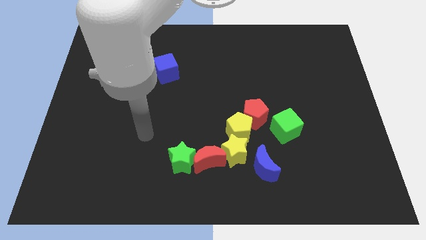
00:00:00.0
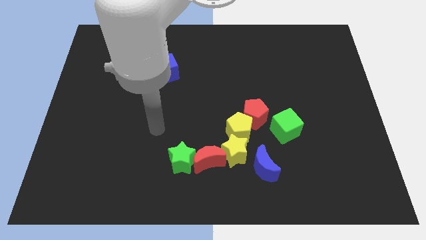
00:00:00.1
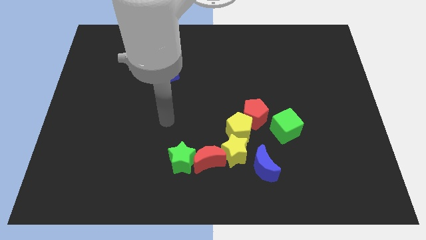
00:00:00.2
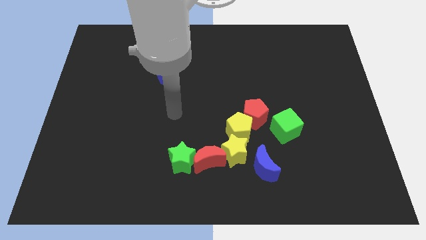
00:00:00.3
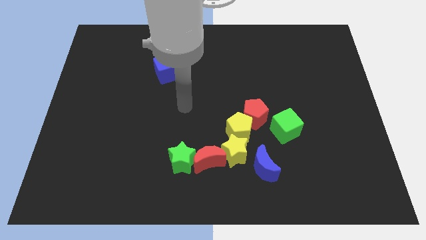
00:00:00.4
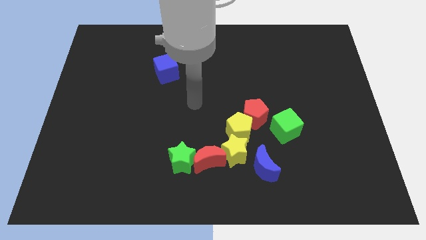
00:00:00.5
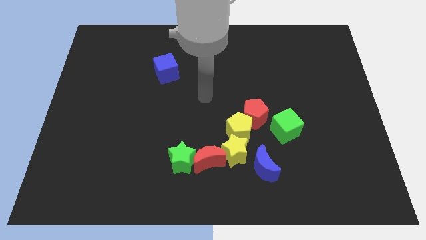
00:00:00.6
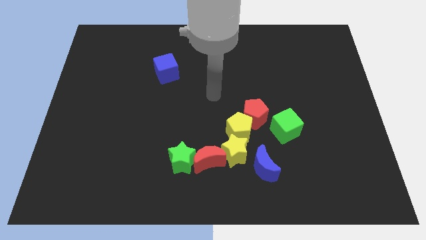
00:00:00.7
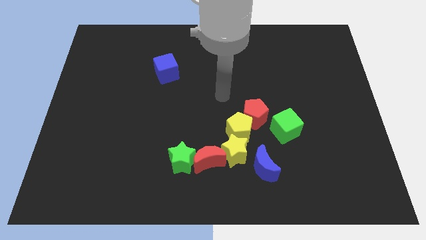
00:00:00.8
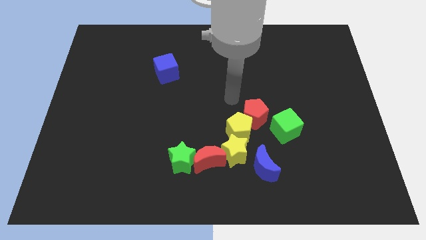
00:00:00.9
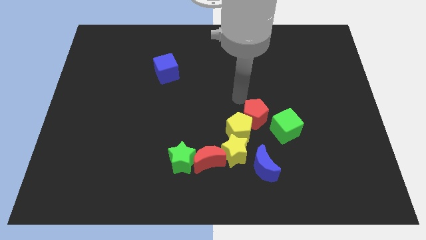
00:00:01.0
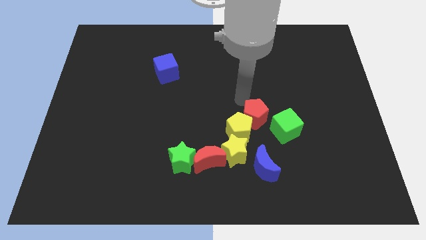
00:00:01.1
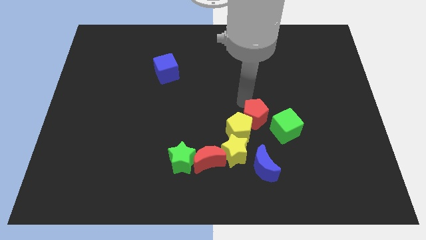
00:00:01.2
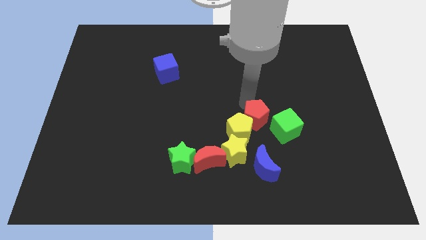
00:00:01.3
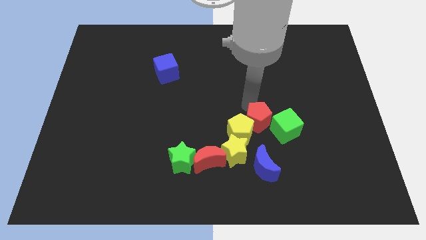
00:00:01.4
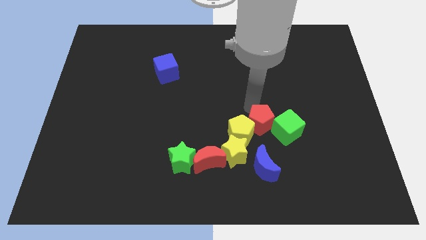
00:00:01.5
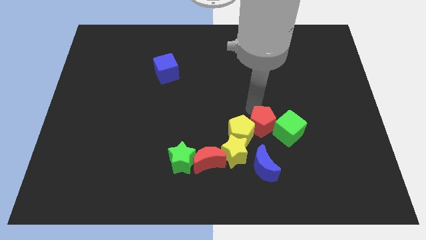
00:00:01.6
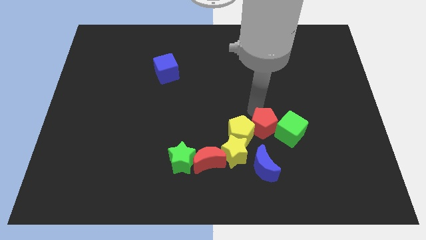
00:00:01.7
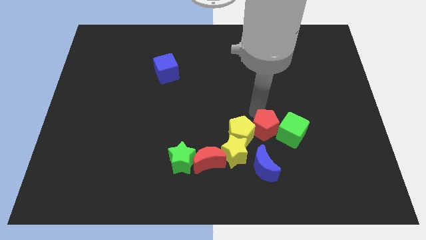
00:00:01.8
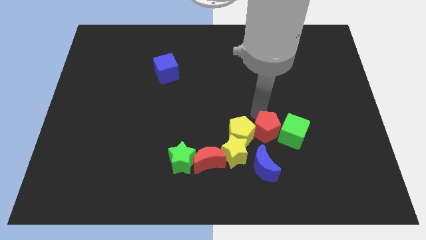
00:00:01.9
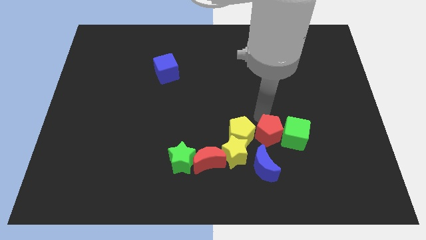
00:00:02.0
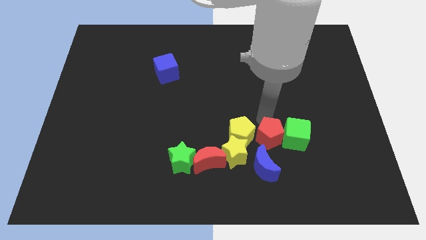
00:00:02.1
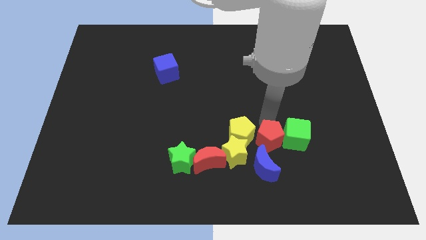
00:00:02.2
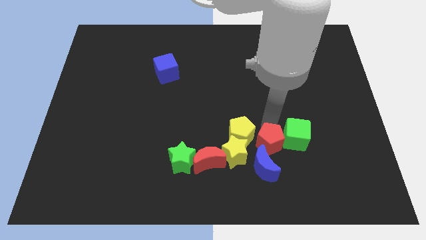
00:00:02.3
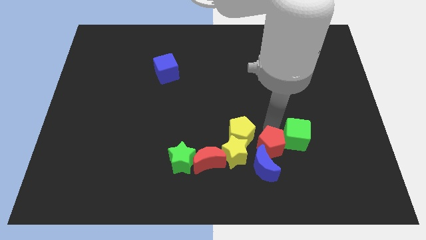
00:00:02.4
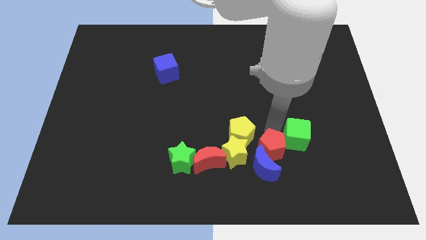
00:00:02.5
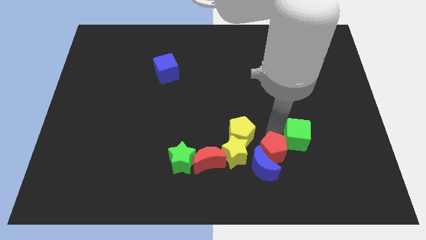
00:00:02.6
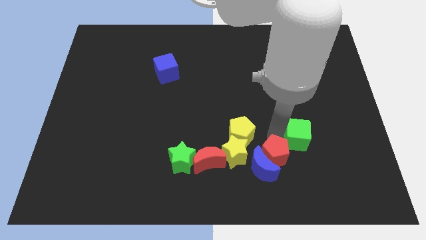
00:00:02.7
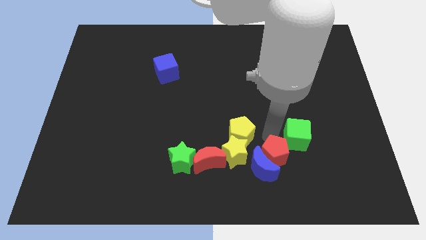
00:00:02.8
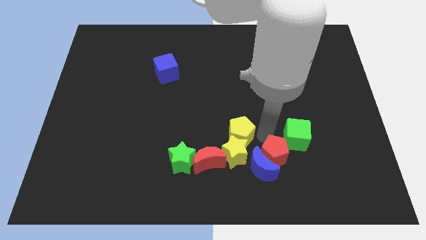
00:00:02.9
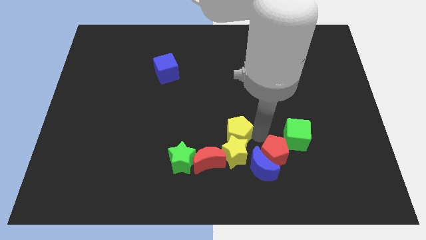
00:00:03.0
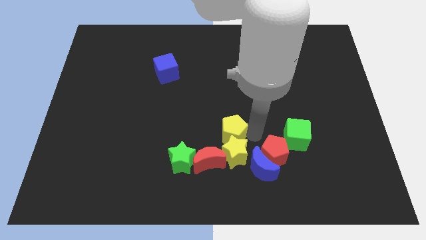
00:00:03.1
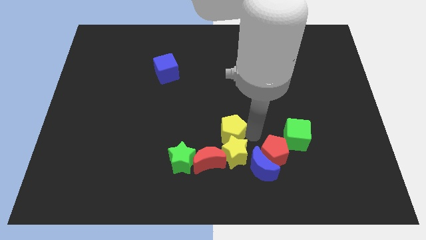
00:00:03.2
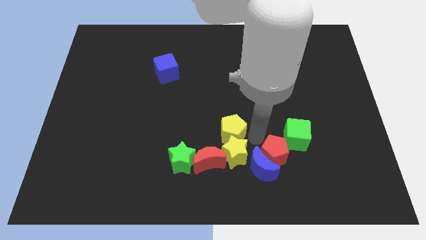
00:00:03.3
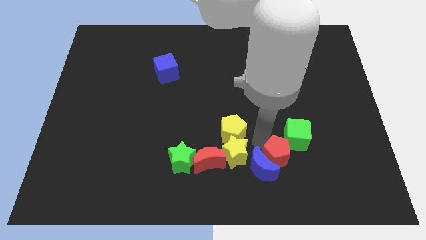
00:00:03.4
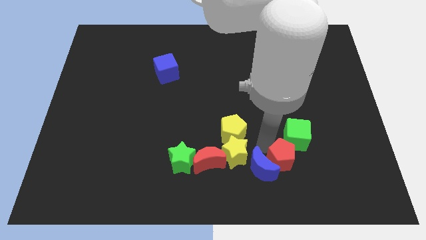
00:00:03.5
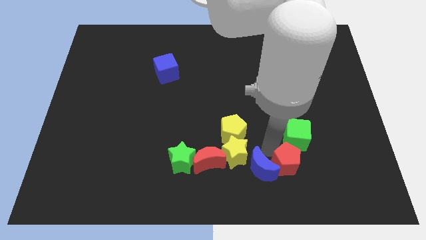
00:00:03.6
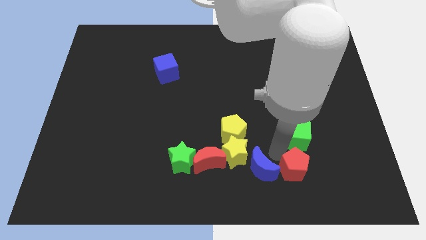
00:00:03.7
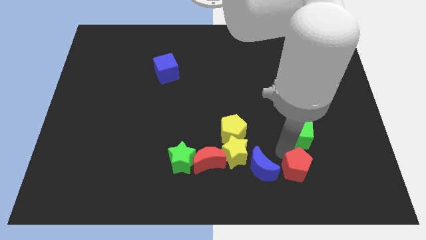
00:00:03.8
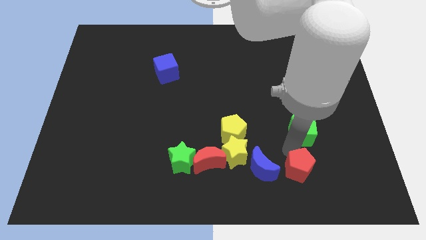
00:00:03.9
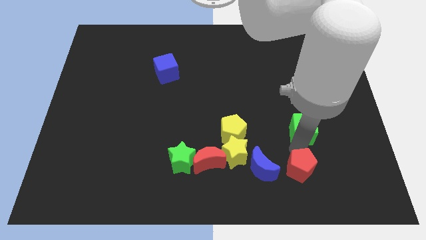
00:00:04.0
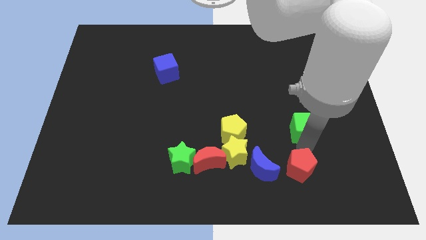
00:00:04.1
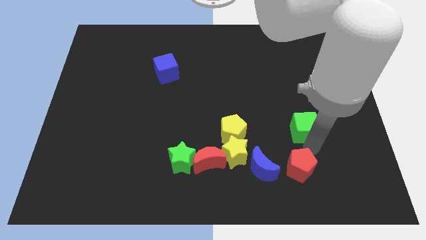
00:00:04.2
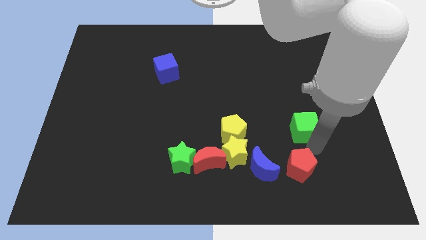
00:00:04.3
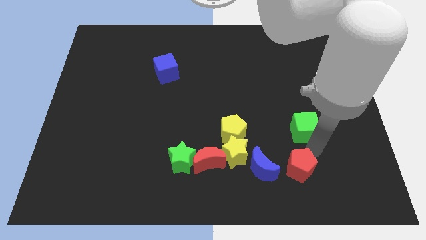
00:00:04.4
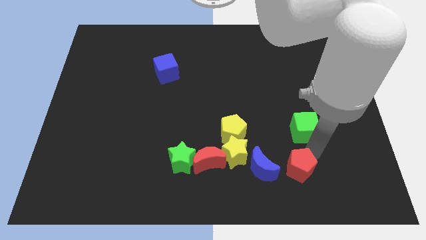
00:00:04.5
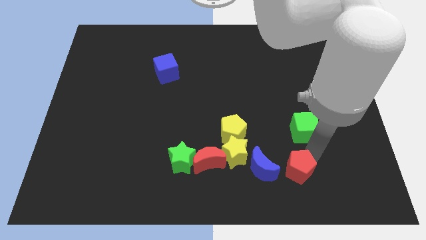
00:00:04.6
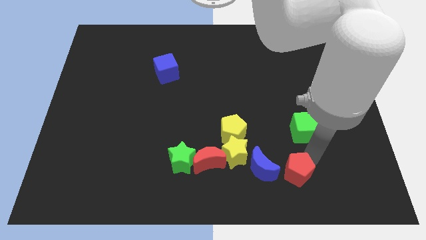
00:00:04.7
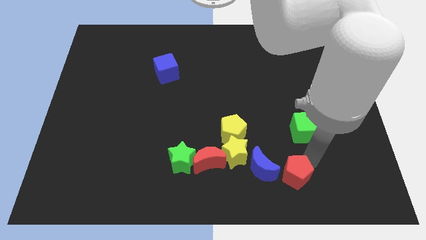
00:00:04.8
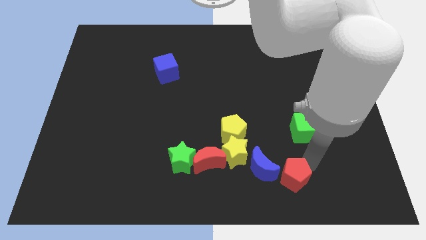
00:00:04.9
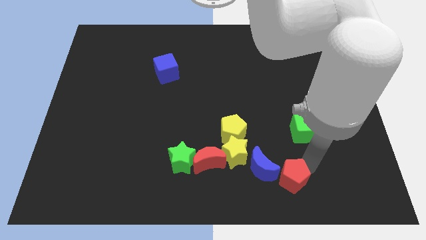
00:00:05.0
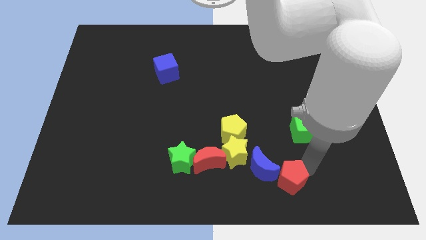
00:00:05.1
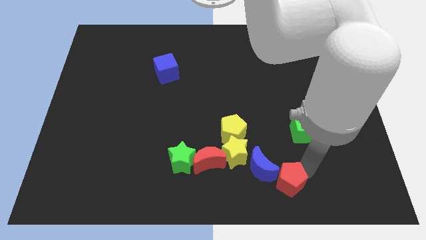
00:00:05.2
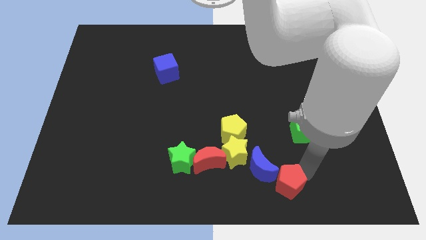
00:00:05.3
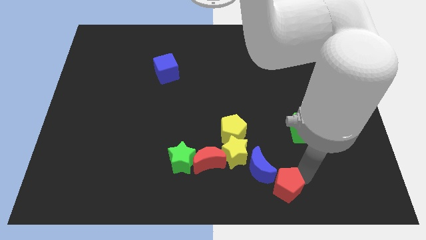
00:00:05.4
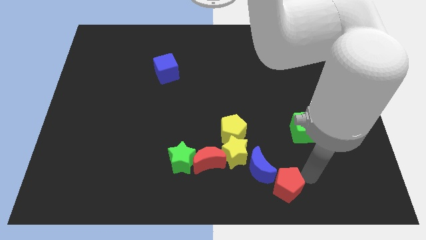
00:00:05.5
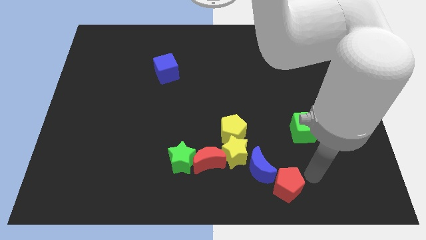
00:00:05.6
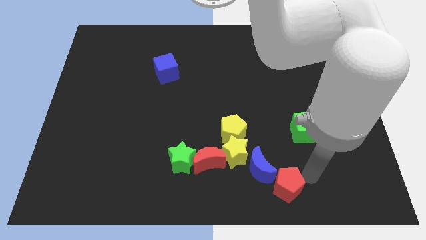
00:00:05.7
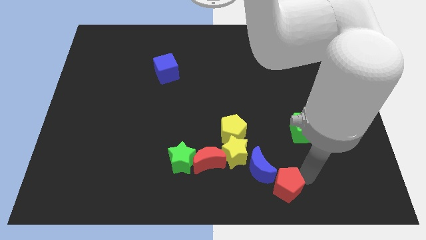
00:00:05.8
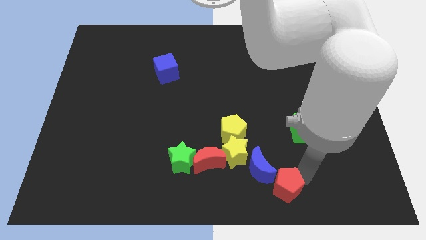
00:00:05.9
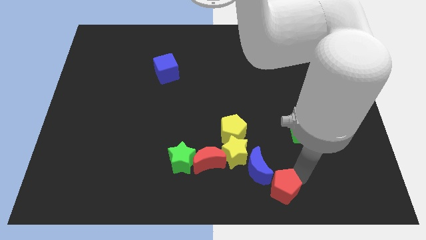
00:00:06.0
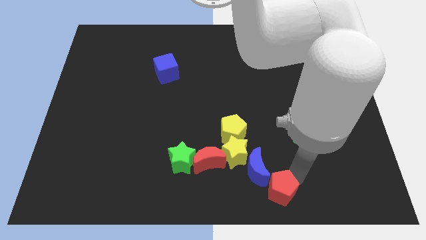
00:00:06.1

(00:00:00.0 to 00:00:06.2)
move the red pentagon to the bottom
